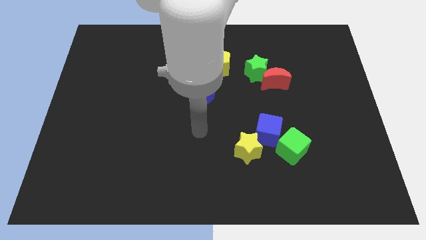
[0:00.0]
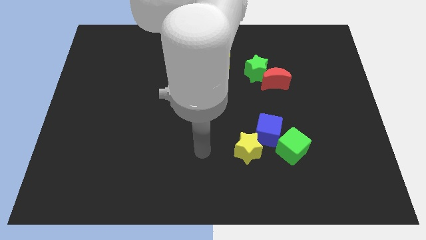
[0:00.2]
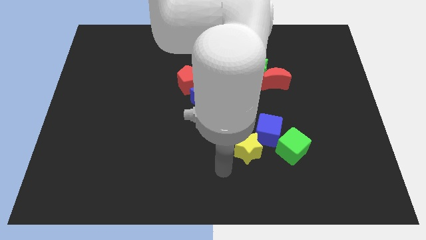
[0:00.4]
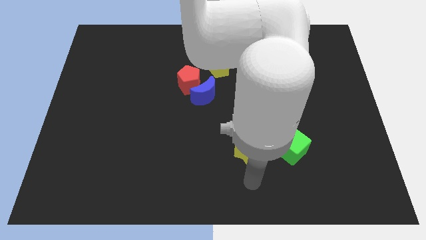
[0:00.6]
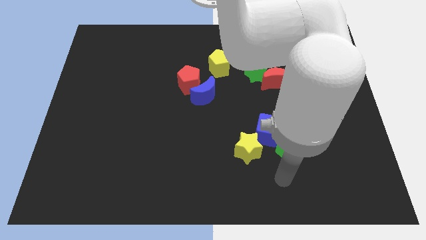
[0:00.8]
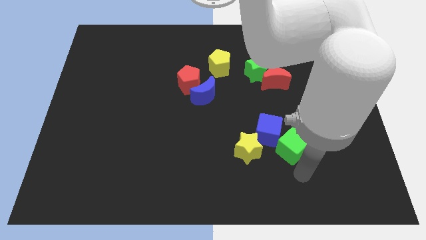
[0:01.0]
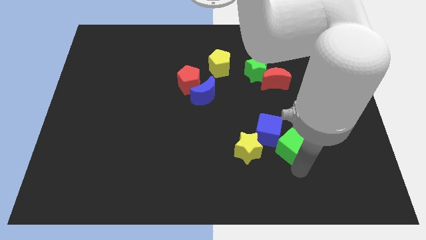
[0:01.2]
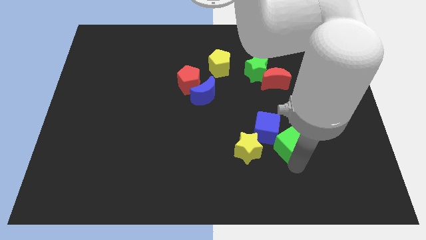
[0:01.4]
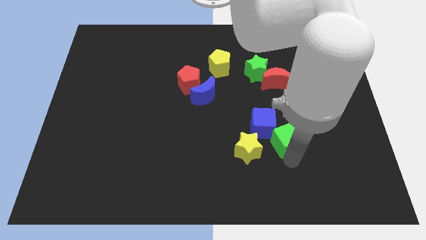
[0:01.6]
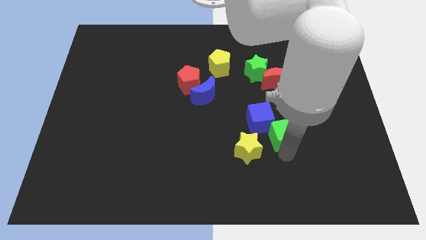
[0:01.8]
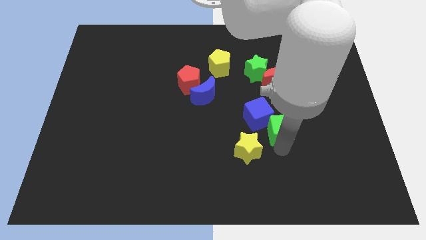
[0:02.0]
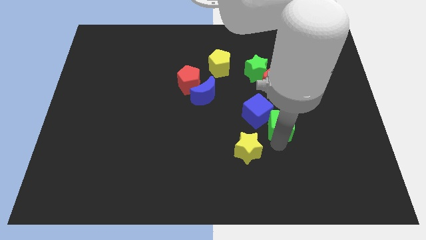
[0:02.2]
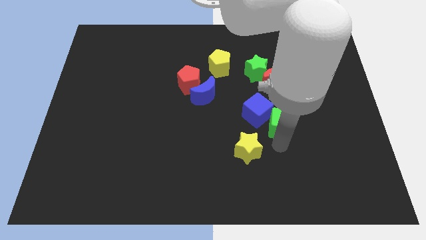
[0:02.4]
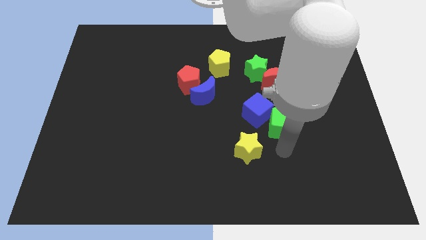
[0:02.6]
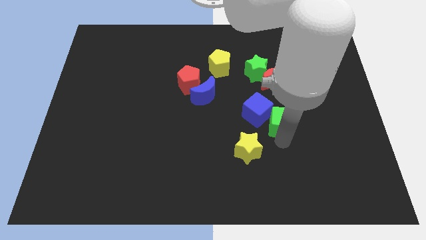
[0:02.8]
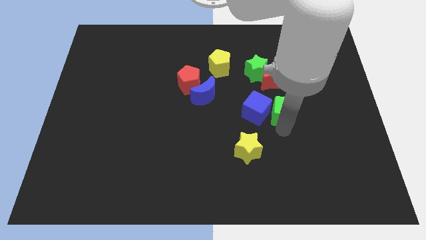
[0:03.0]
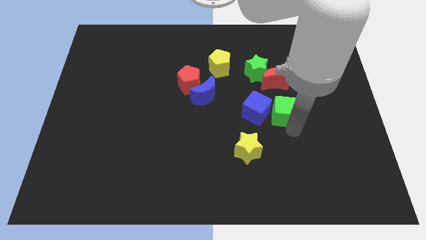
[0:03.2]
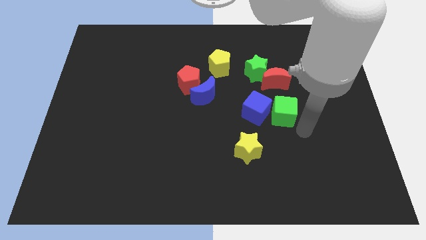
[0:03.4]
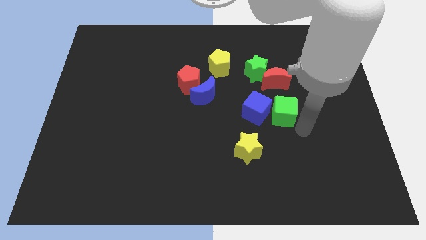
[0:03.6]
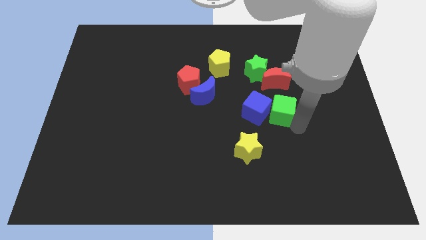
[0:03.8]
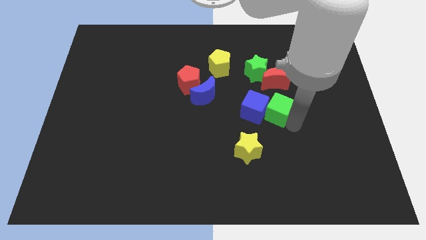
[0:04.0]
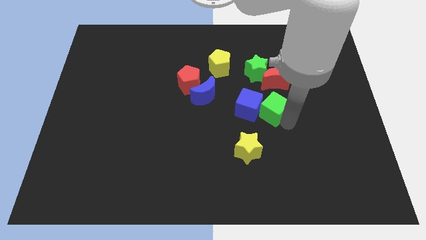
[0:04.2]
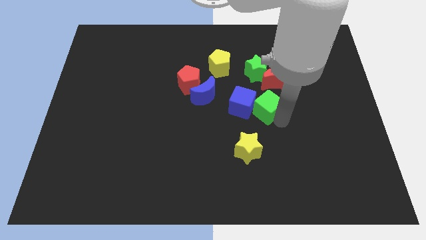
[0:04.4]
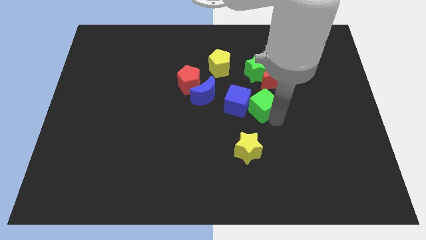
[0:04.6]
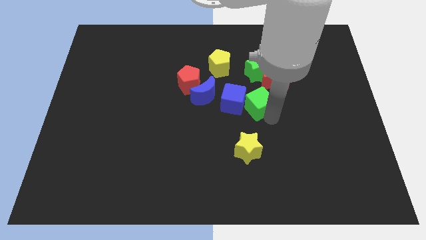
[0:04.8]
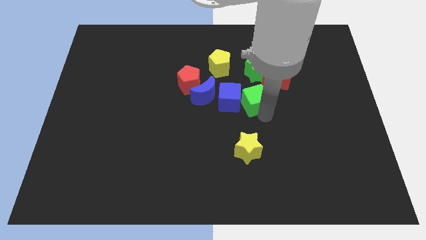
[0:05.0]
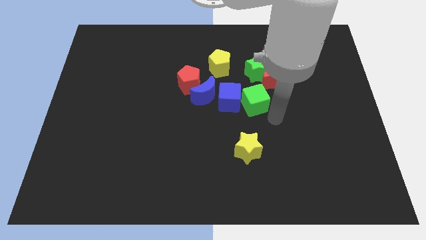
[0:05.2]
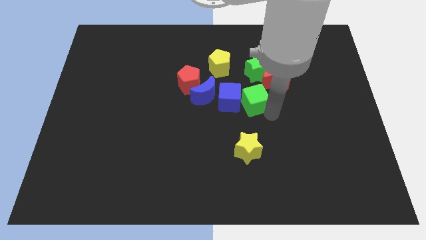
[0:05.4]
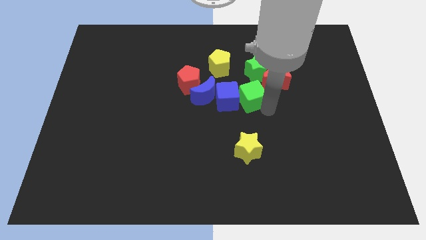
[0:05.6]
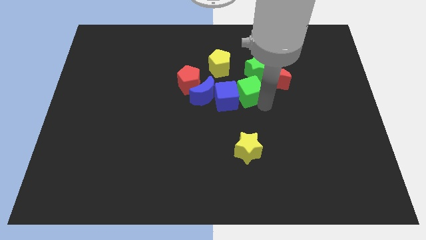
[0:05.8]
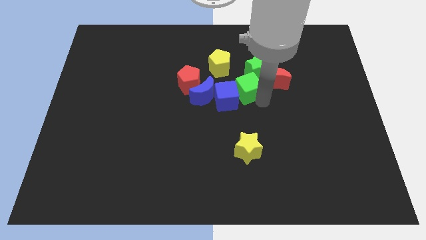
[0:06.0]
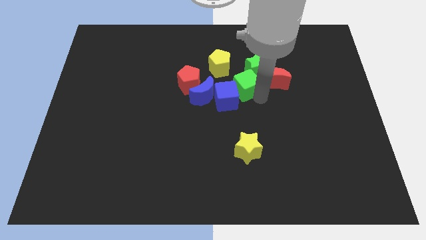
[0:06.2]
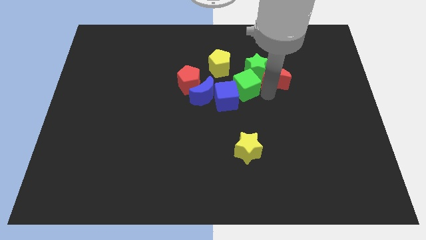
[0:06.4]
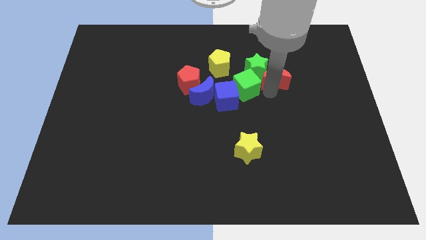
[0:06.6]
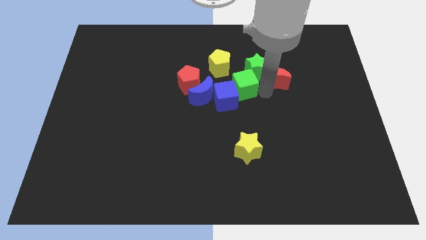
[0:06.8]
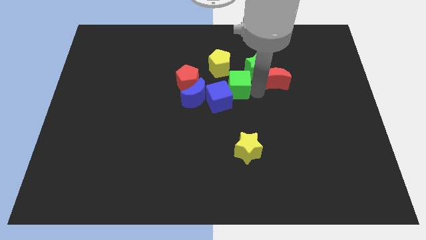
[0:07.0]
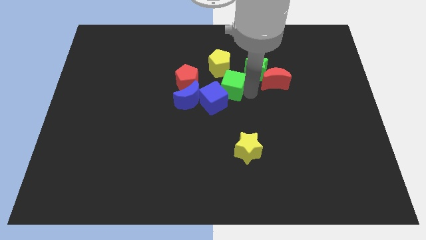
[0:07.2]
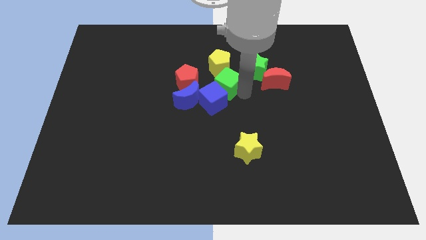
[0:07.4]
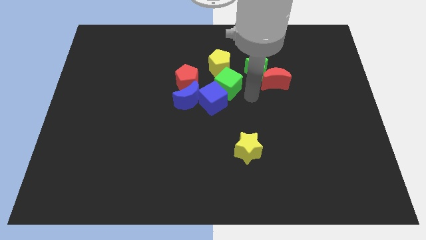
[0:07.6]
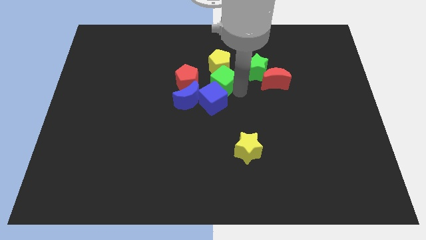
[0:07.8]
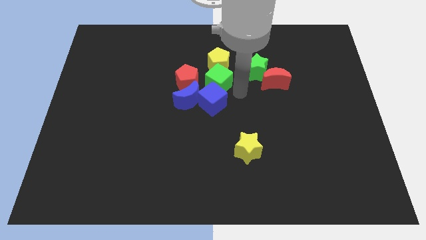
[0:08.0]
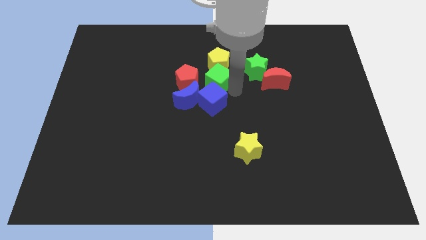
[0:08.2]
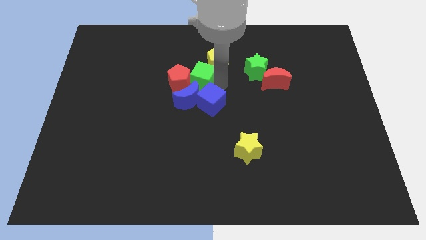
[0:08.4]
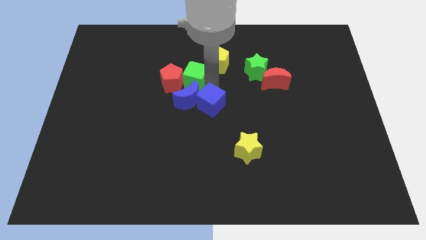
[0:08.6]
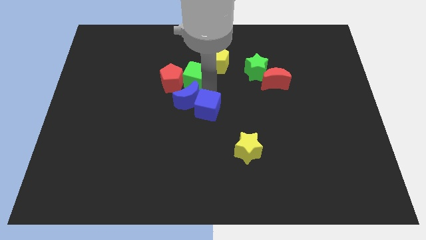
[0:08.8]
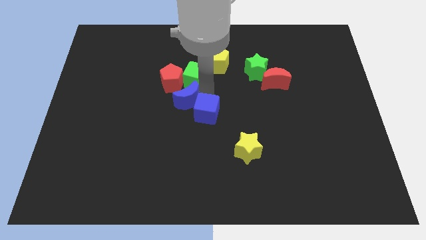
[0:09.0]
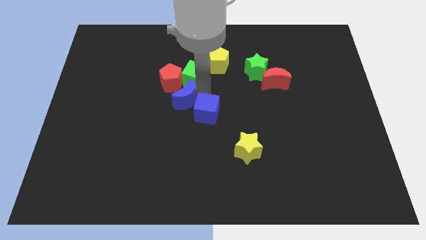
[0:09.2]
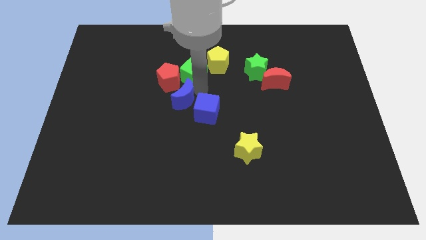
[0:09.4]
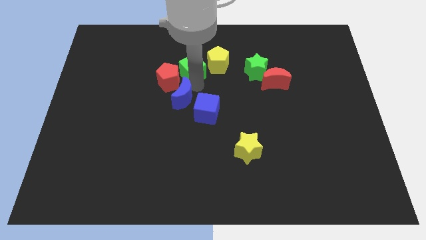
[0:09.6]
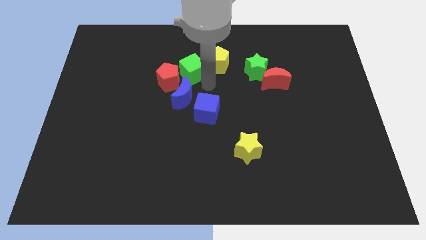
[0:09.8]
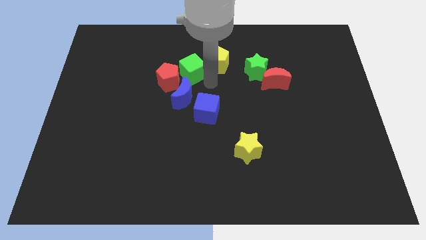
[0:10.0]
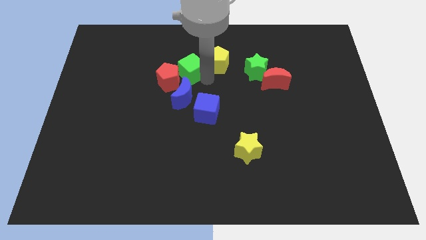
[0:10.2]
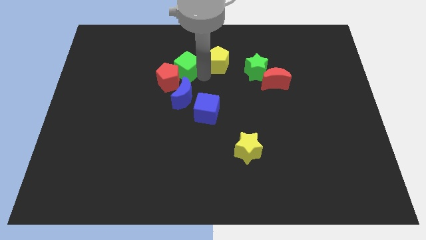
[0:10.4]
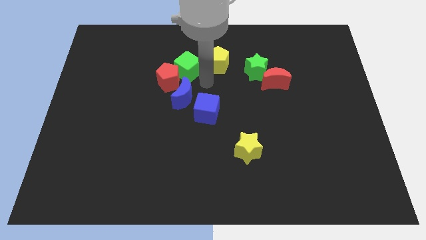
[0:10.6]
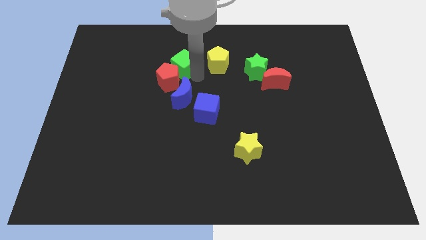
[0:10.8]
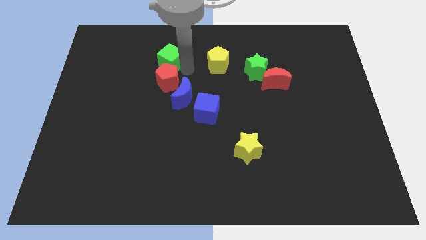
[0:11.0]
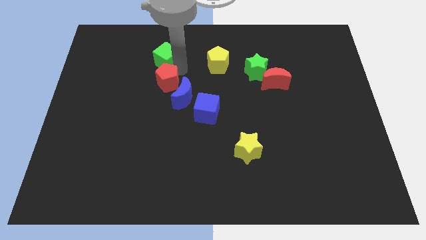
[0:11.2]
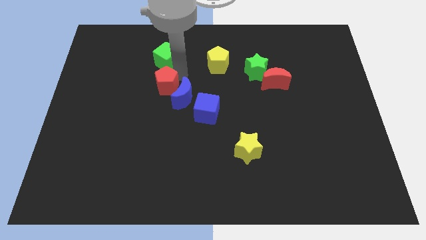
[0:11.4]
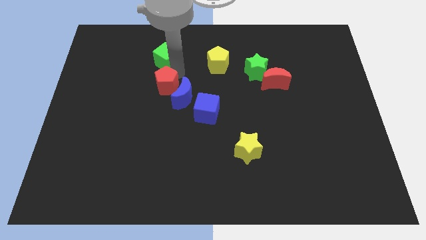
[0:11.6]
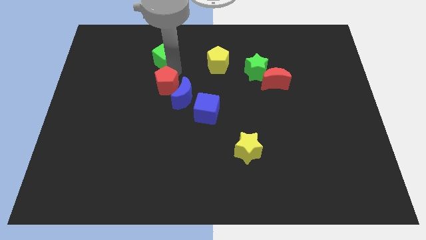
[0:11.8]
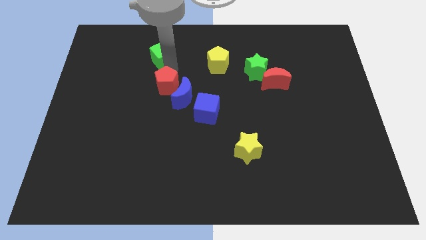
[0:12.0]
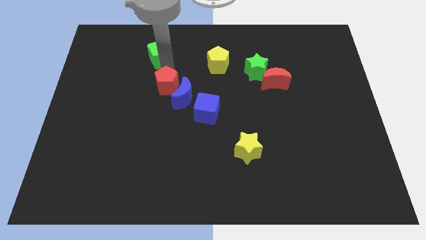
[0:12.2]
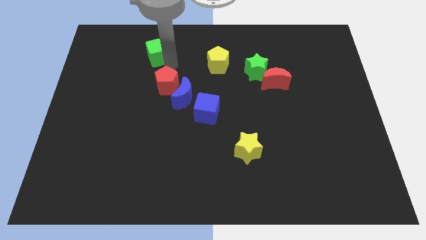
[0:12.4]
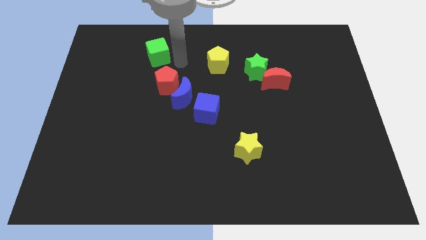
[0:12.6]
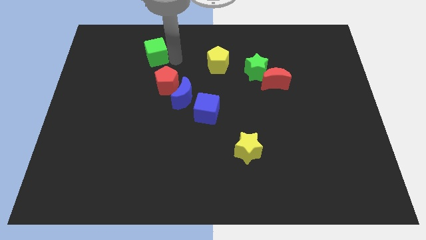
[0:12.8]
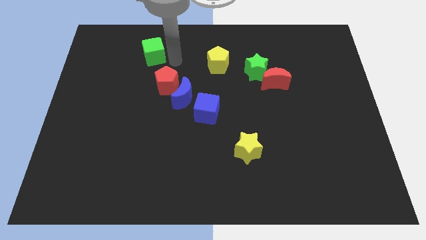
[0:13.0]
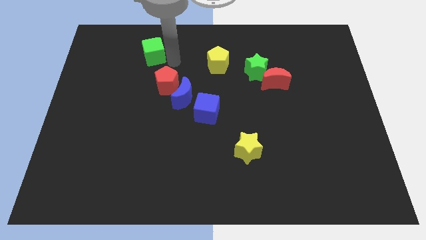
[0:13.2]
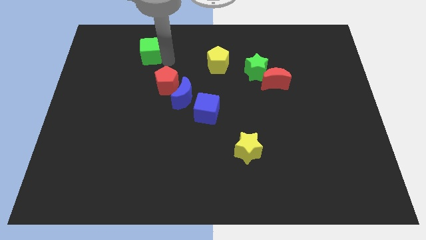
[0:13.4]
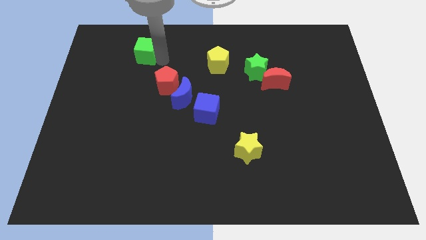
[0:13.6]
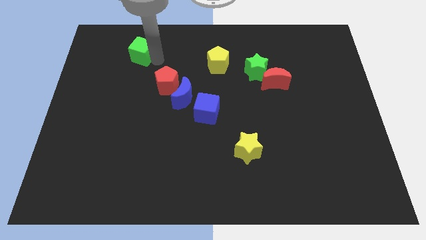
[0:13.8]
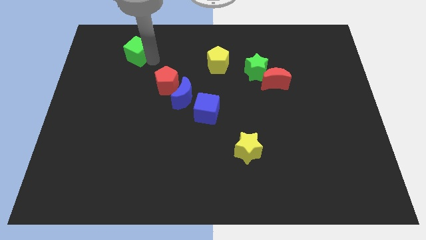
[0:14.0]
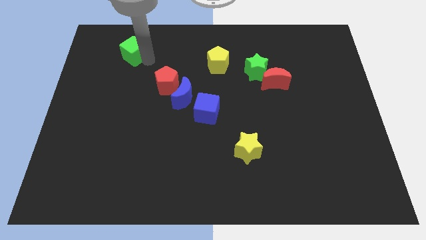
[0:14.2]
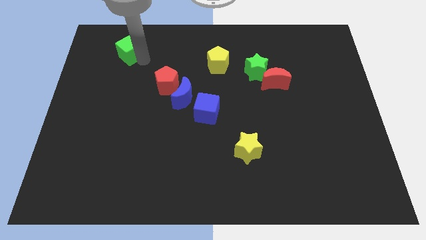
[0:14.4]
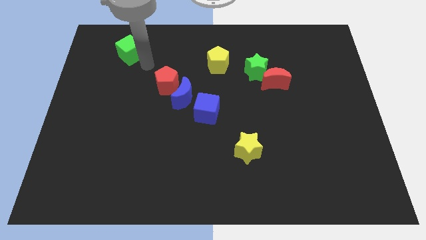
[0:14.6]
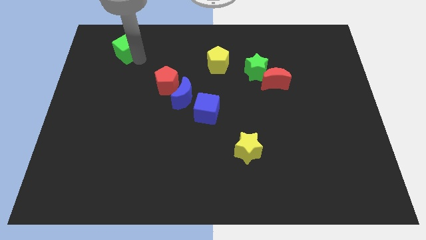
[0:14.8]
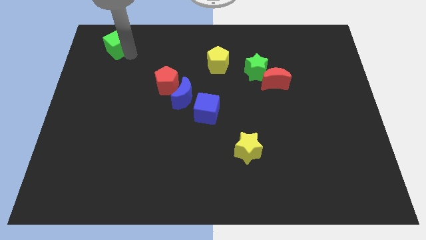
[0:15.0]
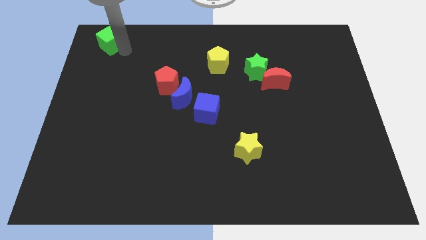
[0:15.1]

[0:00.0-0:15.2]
slide the green cube to the top left of the board
